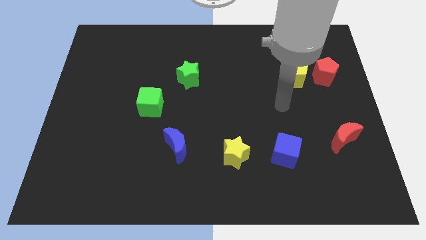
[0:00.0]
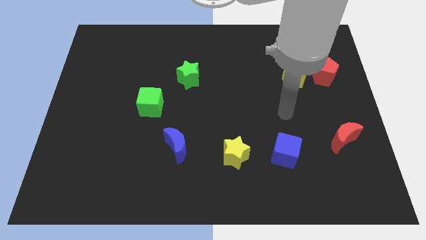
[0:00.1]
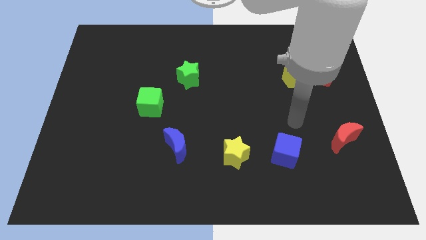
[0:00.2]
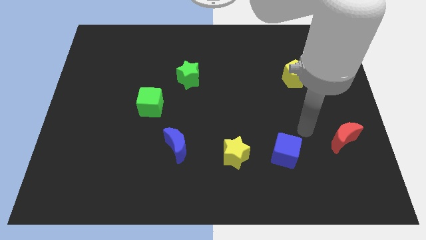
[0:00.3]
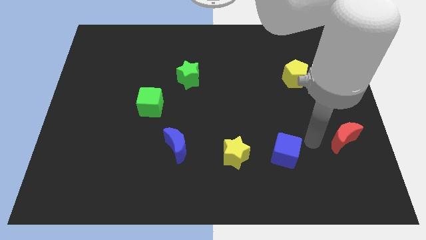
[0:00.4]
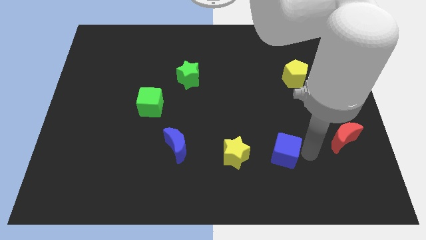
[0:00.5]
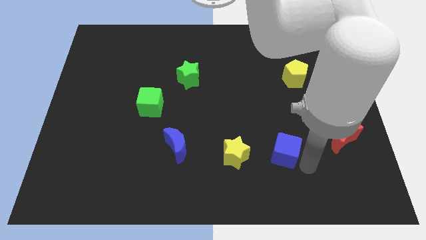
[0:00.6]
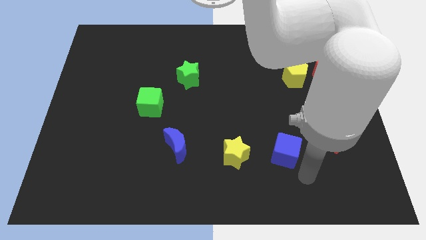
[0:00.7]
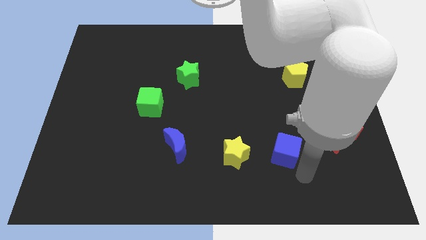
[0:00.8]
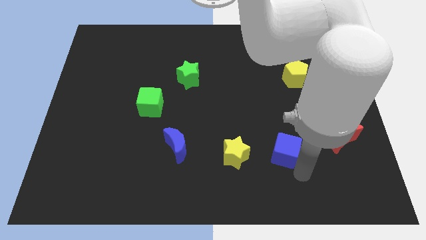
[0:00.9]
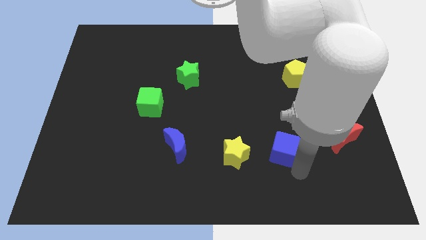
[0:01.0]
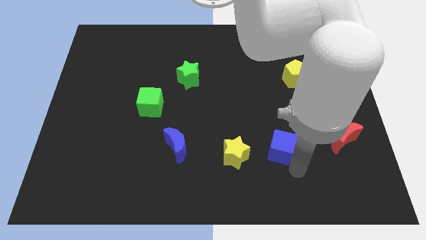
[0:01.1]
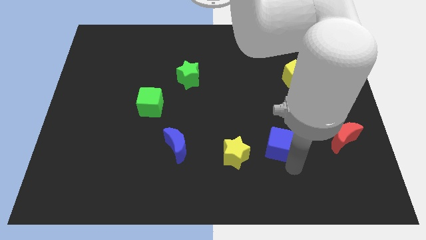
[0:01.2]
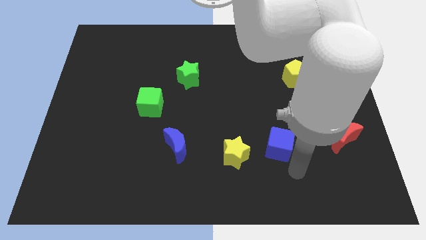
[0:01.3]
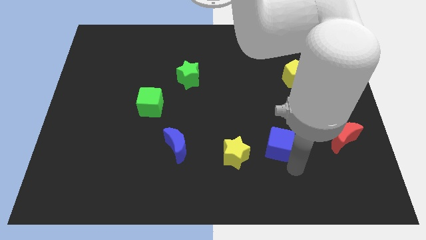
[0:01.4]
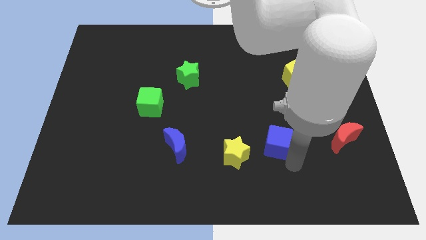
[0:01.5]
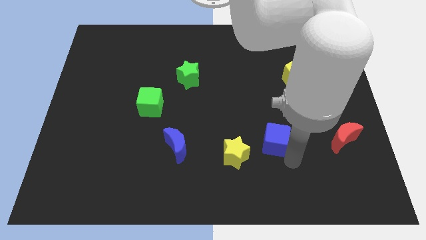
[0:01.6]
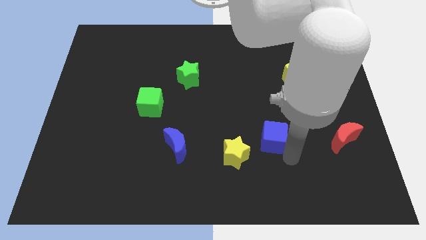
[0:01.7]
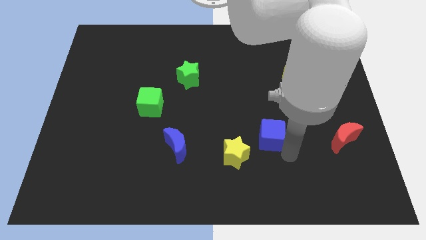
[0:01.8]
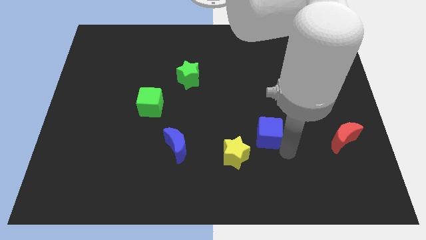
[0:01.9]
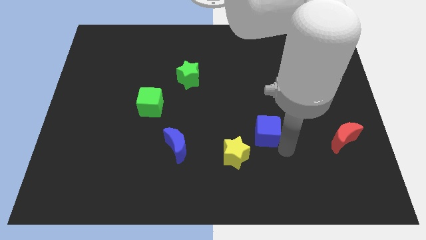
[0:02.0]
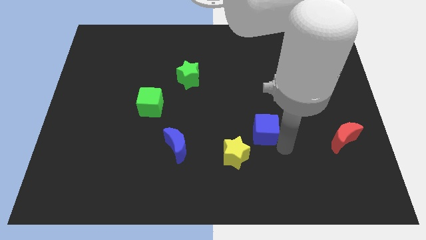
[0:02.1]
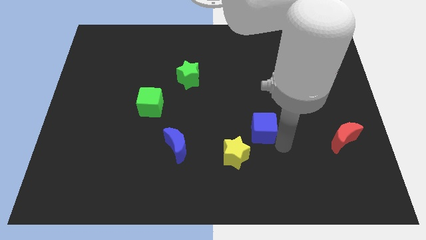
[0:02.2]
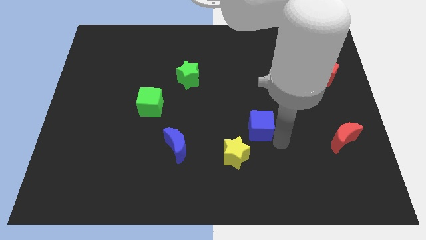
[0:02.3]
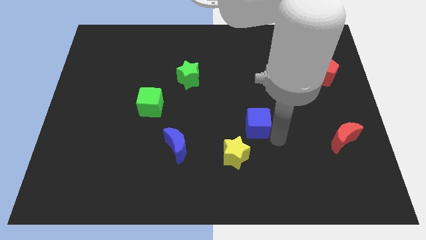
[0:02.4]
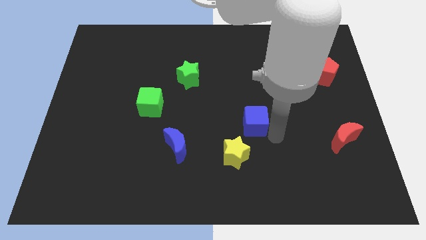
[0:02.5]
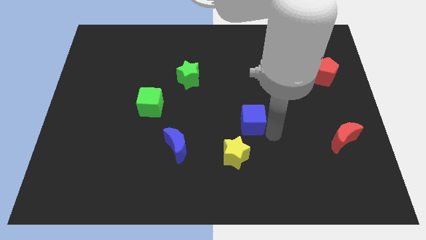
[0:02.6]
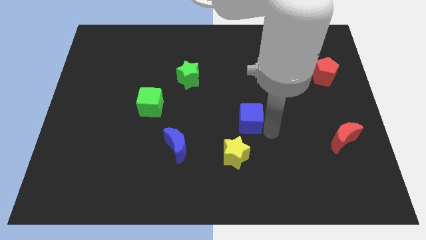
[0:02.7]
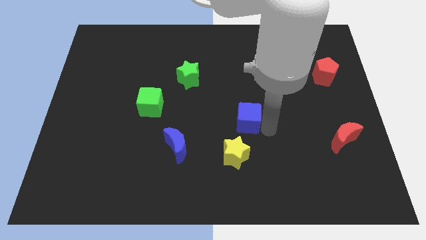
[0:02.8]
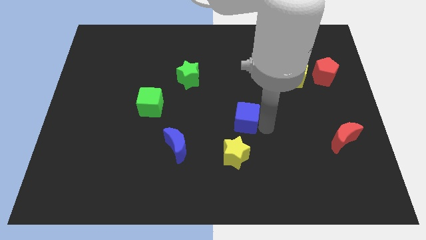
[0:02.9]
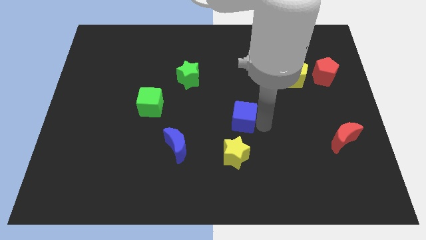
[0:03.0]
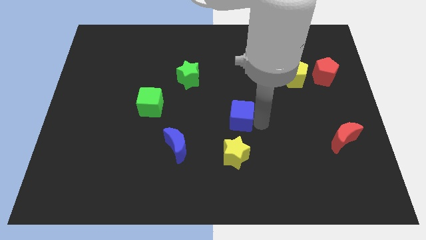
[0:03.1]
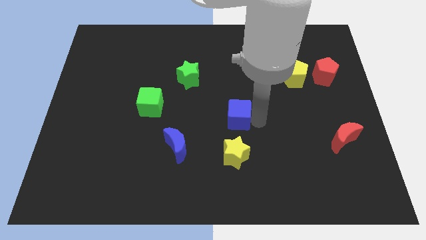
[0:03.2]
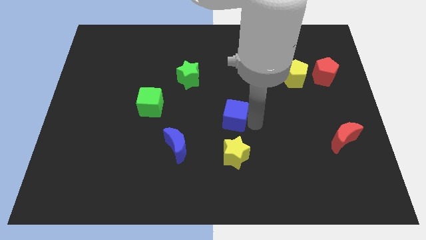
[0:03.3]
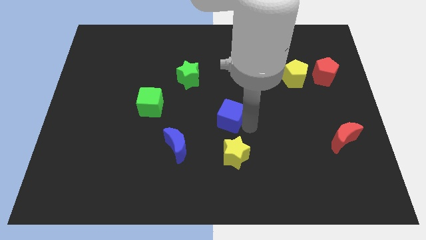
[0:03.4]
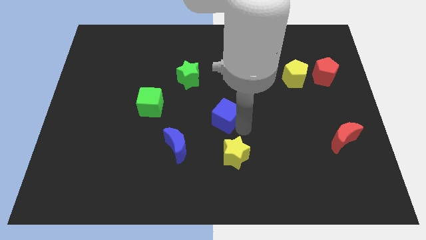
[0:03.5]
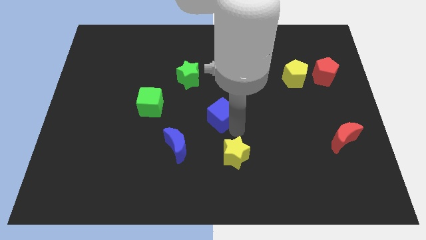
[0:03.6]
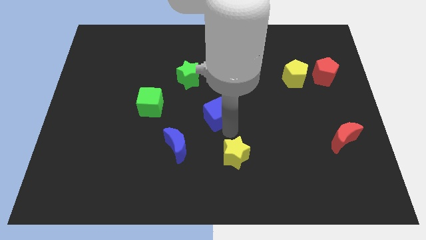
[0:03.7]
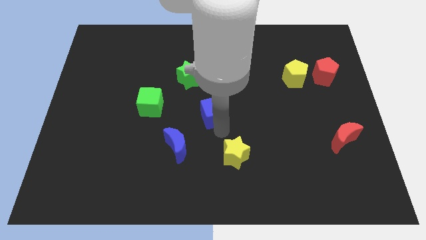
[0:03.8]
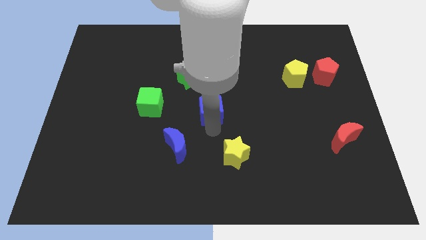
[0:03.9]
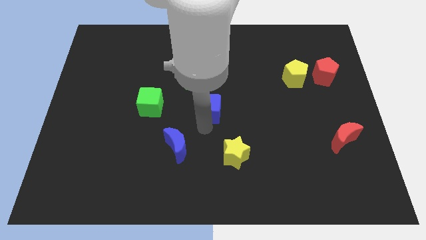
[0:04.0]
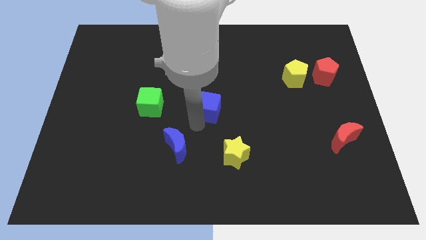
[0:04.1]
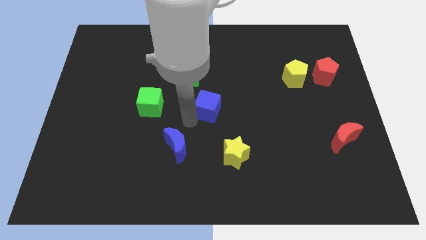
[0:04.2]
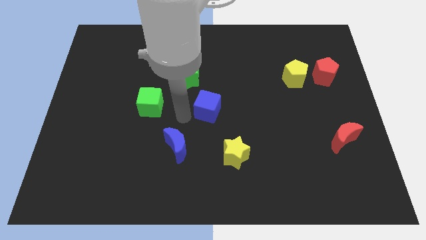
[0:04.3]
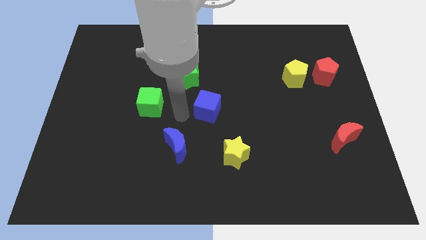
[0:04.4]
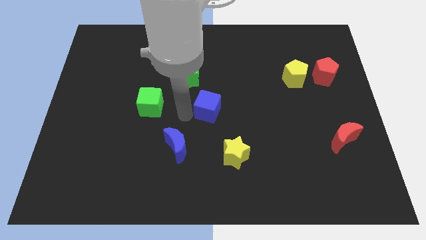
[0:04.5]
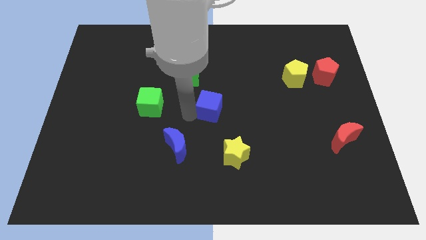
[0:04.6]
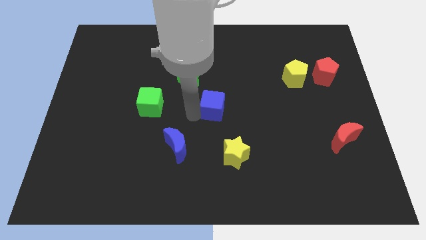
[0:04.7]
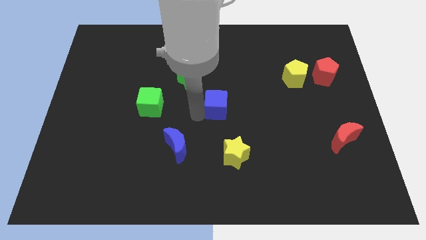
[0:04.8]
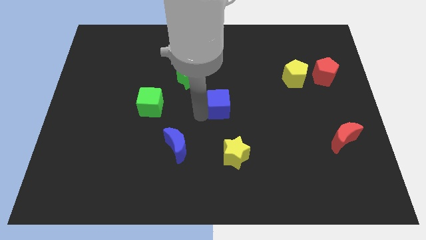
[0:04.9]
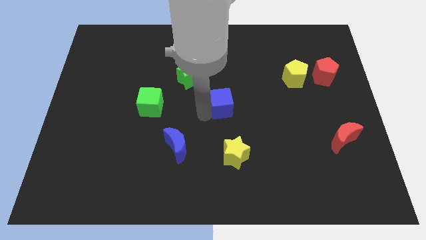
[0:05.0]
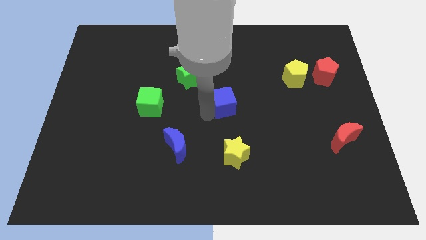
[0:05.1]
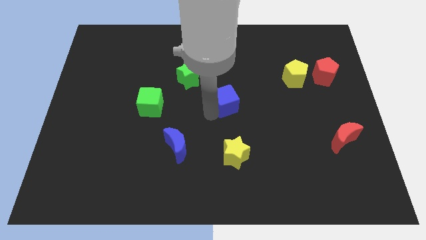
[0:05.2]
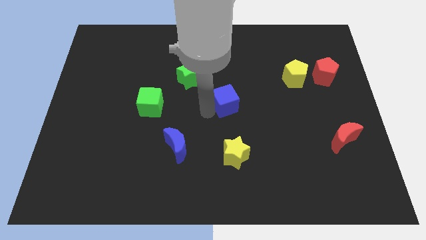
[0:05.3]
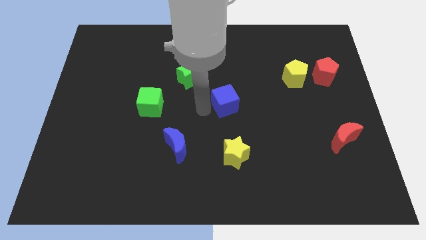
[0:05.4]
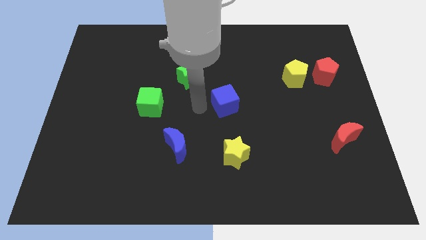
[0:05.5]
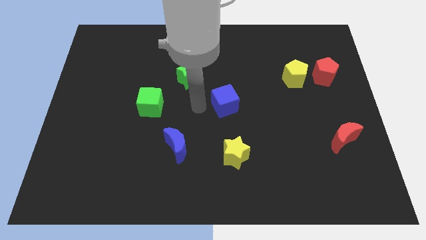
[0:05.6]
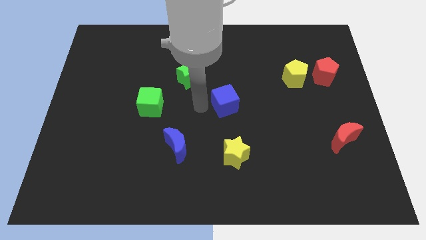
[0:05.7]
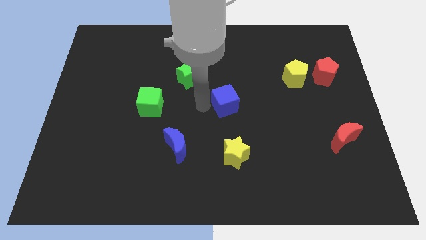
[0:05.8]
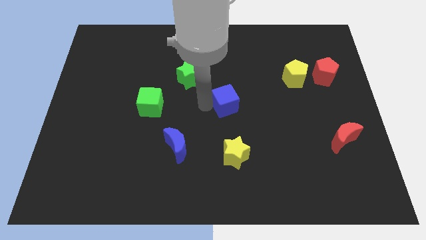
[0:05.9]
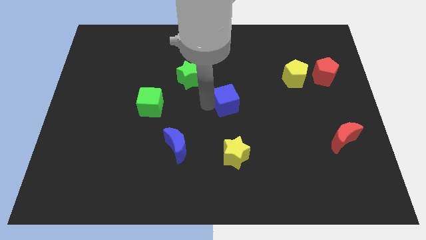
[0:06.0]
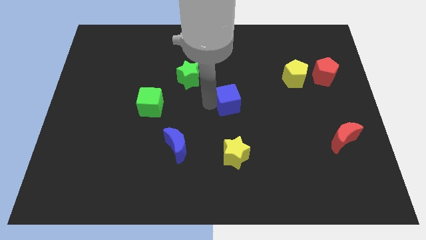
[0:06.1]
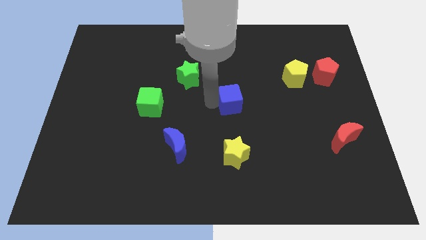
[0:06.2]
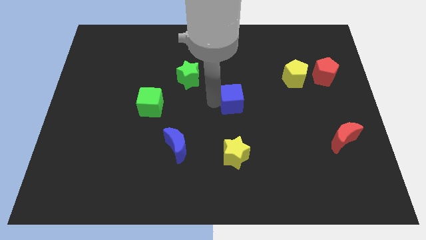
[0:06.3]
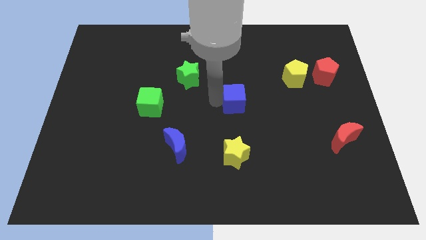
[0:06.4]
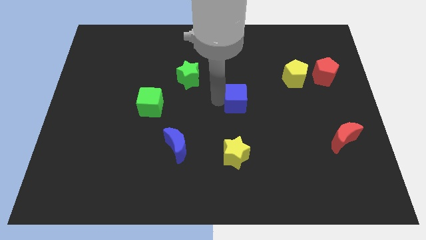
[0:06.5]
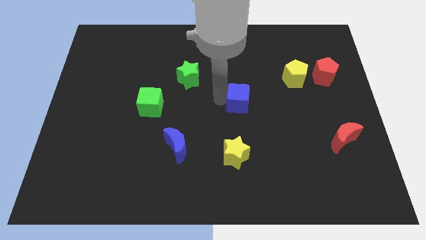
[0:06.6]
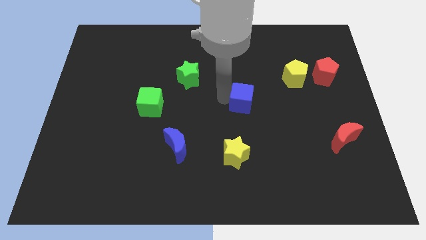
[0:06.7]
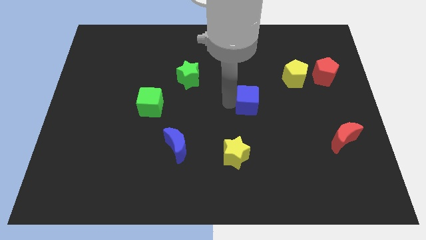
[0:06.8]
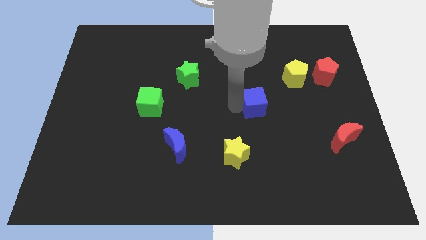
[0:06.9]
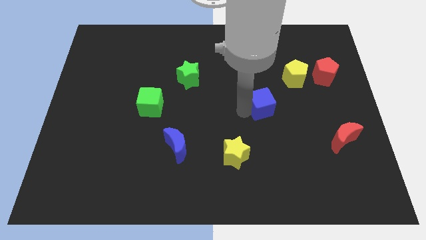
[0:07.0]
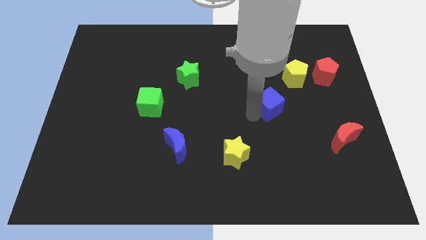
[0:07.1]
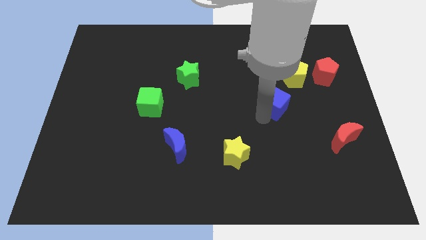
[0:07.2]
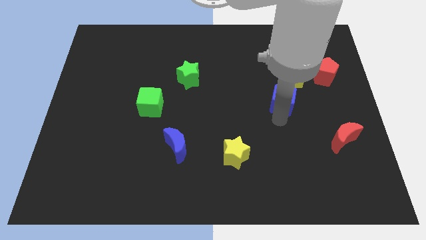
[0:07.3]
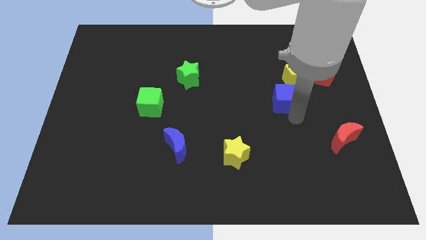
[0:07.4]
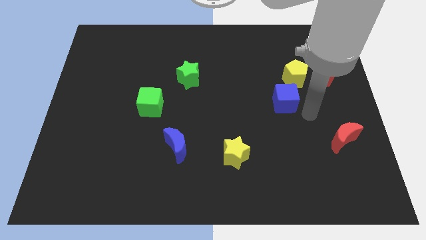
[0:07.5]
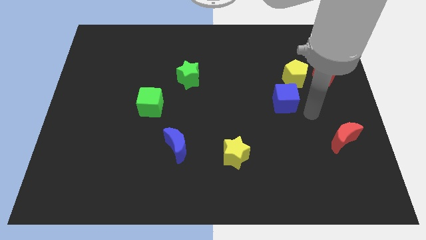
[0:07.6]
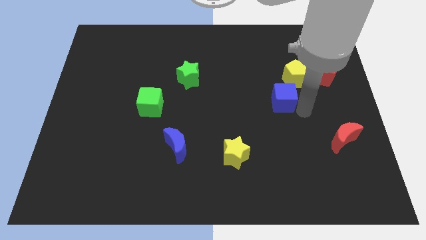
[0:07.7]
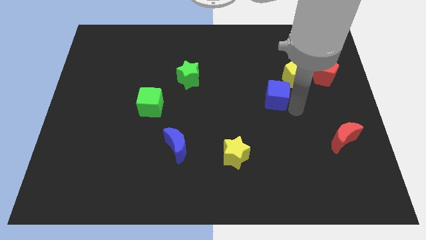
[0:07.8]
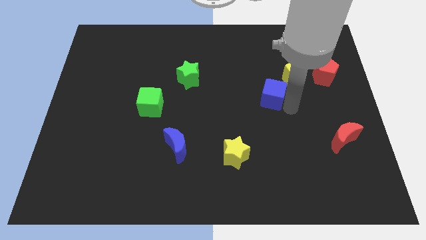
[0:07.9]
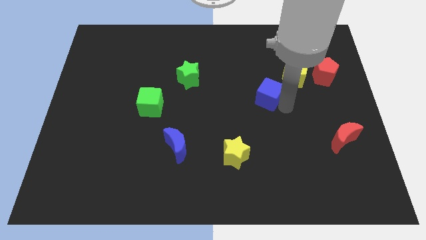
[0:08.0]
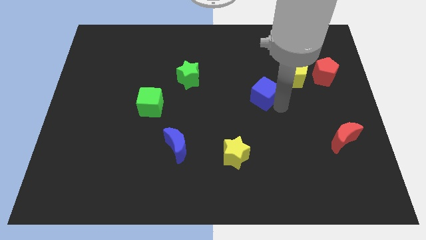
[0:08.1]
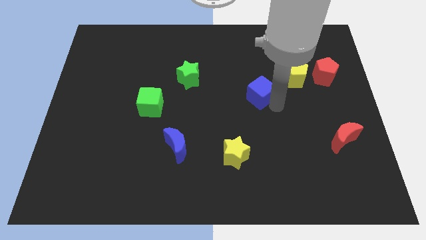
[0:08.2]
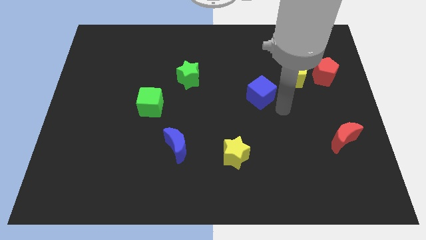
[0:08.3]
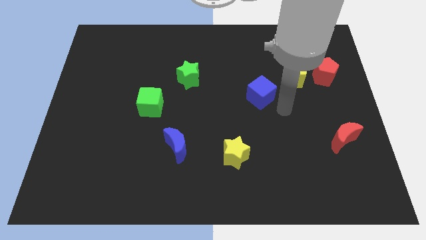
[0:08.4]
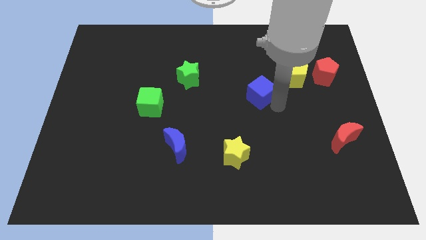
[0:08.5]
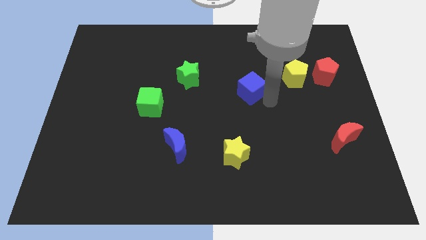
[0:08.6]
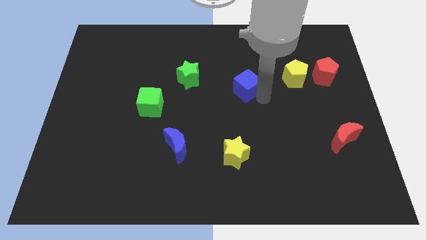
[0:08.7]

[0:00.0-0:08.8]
put the blue cube right of the green star
